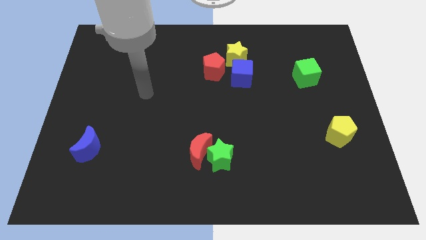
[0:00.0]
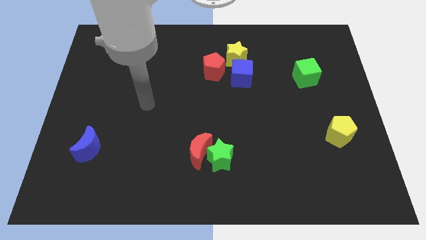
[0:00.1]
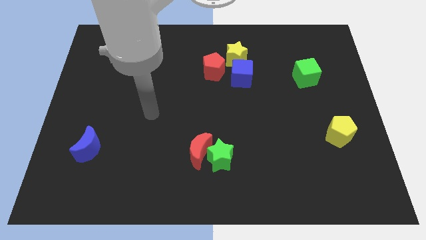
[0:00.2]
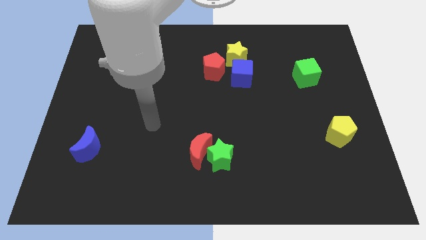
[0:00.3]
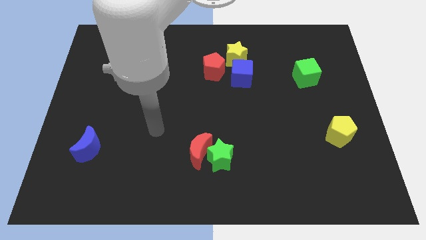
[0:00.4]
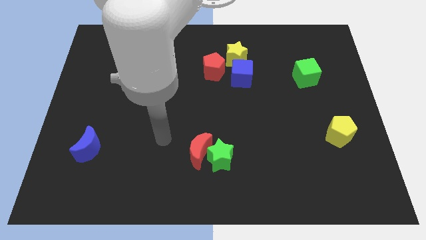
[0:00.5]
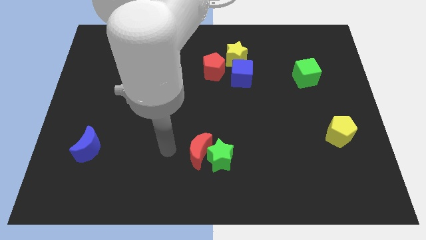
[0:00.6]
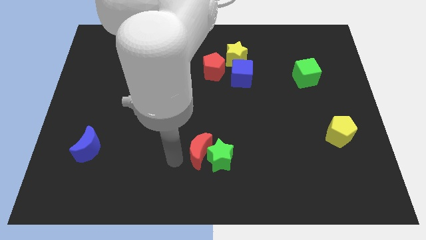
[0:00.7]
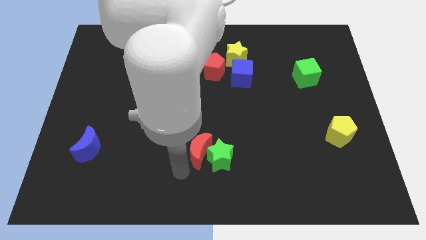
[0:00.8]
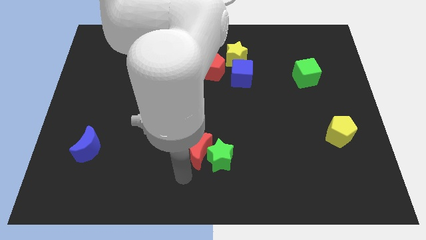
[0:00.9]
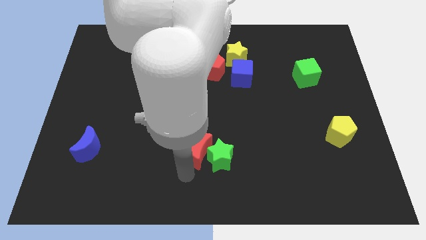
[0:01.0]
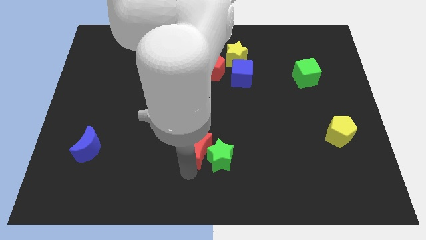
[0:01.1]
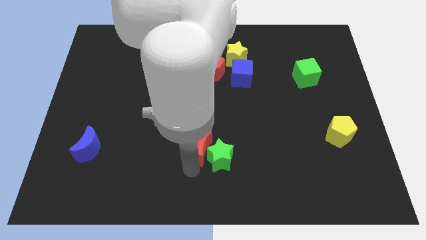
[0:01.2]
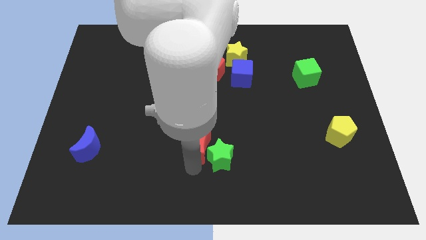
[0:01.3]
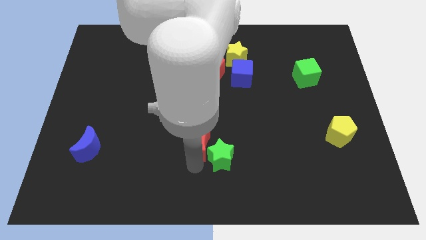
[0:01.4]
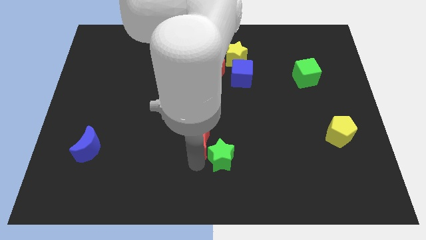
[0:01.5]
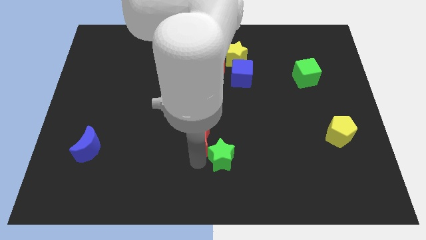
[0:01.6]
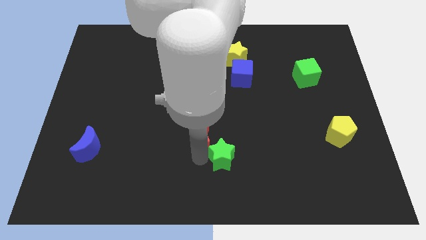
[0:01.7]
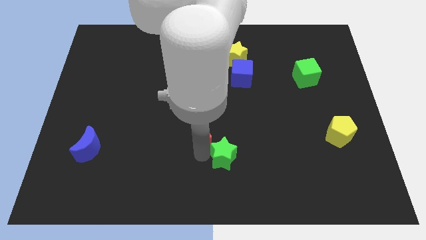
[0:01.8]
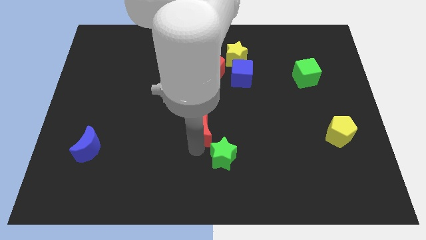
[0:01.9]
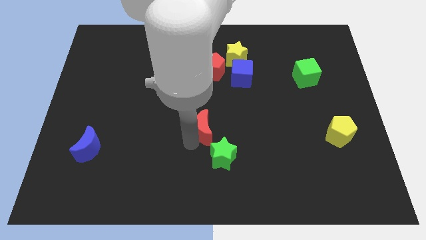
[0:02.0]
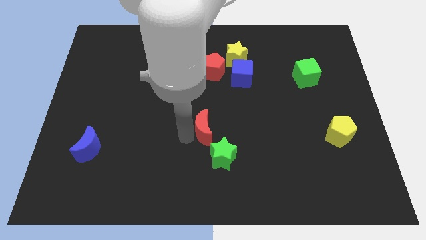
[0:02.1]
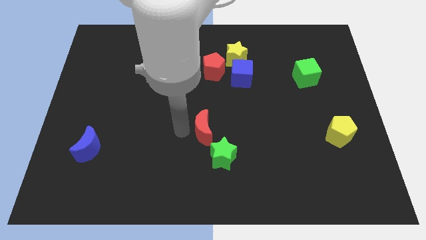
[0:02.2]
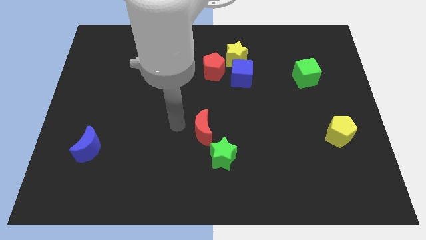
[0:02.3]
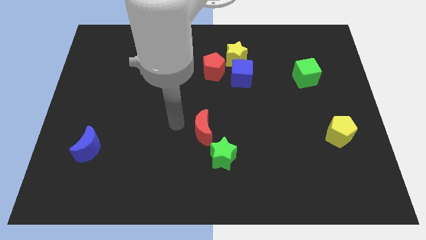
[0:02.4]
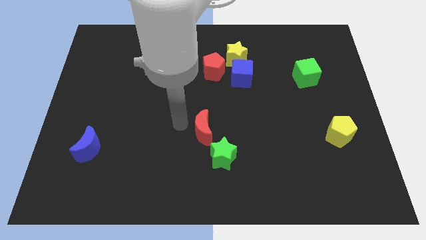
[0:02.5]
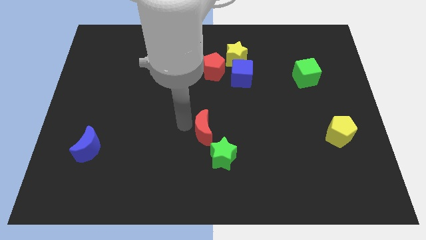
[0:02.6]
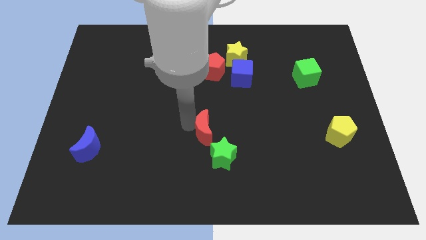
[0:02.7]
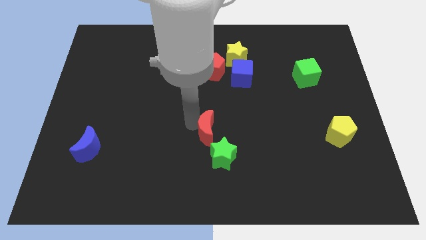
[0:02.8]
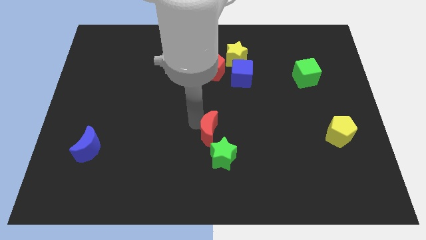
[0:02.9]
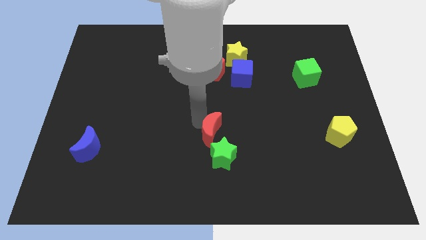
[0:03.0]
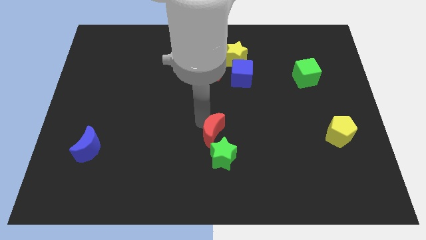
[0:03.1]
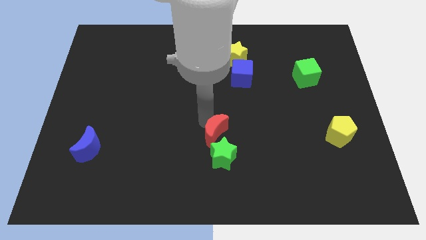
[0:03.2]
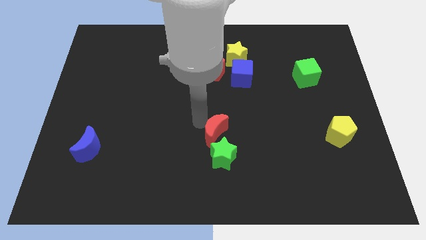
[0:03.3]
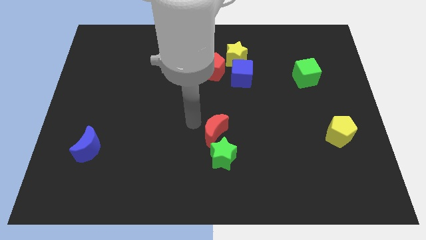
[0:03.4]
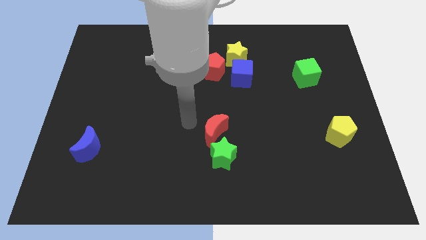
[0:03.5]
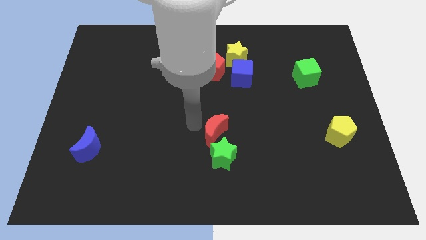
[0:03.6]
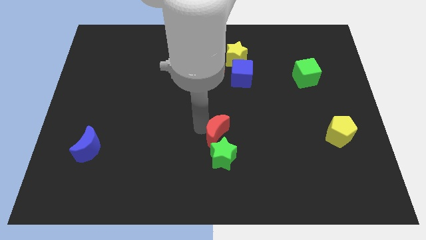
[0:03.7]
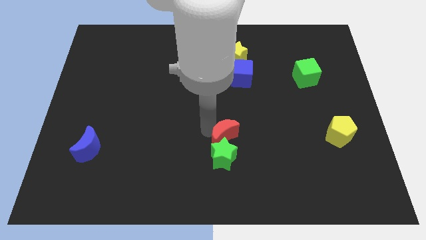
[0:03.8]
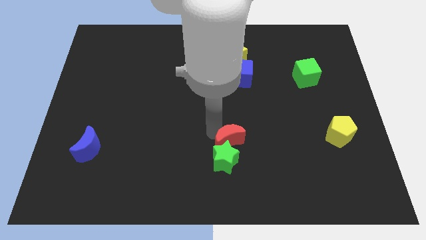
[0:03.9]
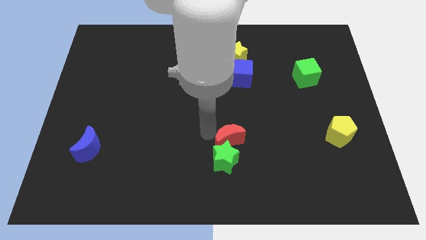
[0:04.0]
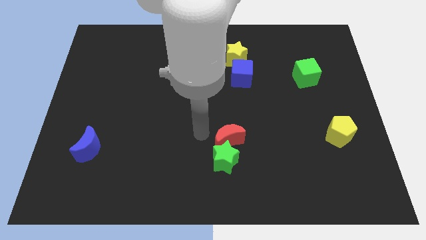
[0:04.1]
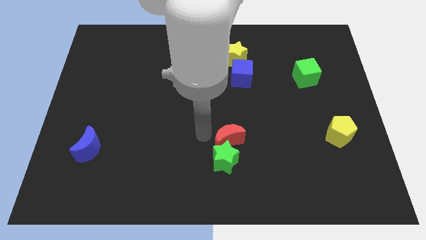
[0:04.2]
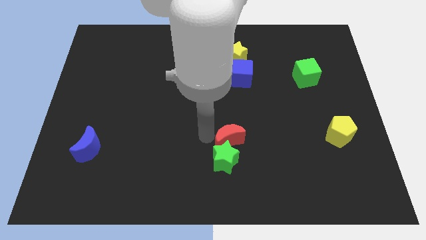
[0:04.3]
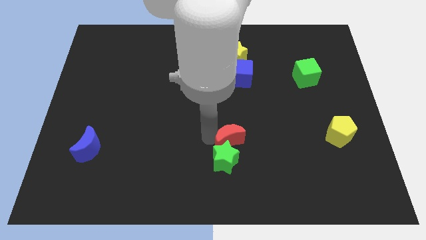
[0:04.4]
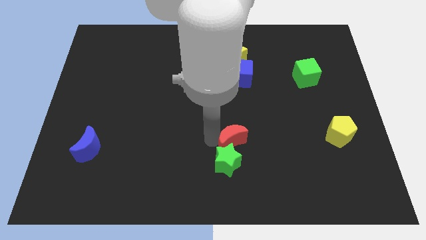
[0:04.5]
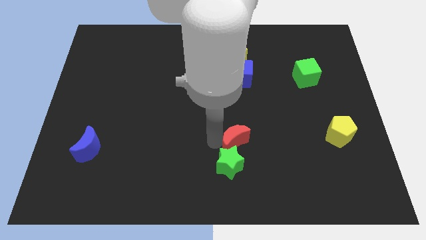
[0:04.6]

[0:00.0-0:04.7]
slide the red moon slightly right

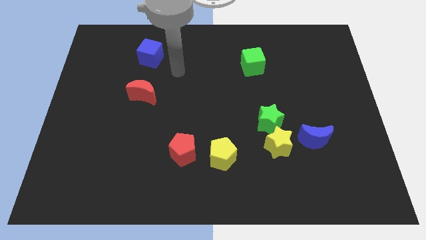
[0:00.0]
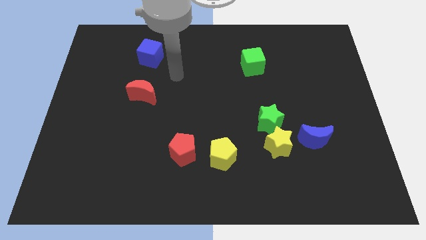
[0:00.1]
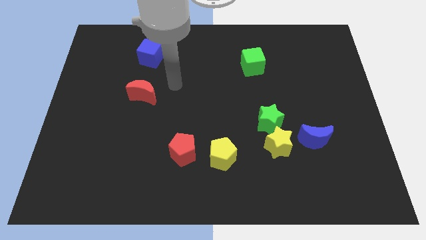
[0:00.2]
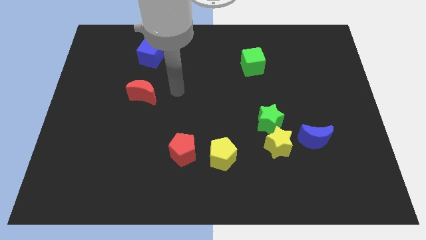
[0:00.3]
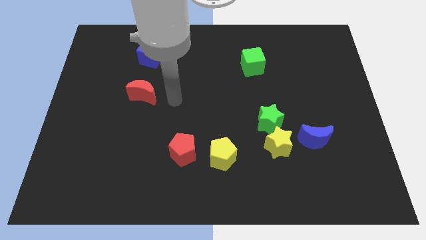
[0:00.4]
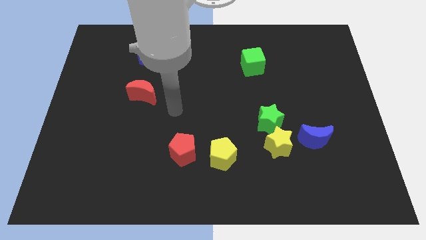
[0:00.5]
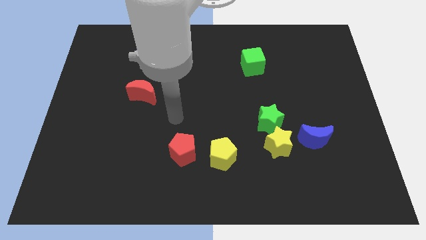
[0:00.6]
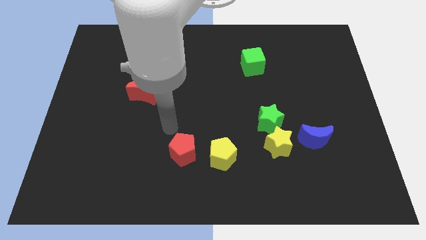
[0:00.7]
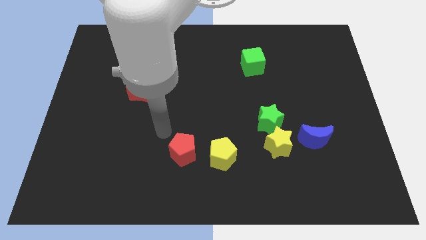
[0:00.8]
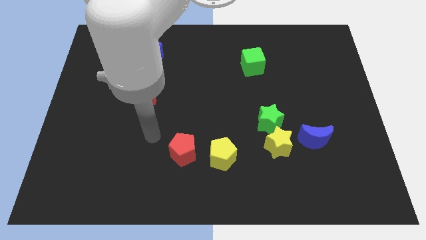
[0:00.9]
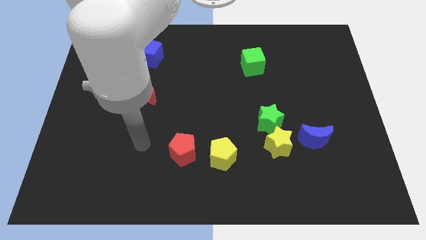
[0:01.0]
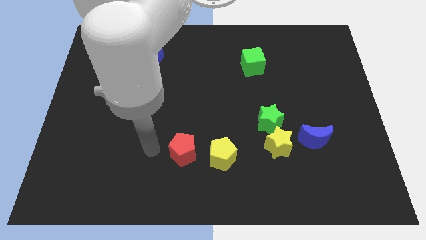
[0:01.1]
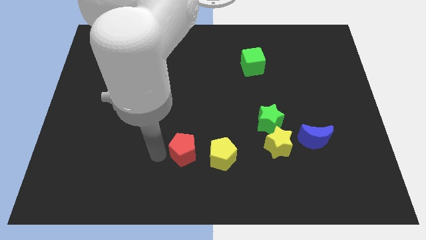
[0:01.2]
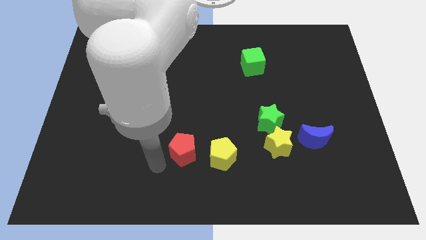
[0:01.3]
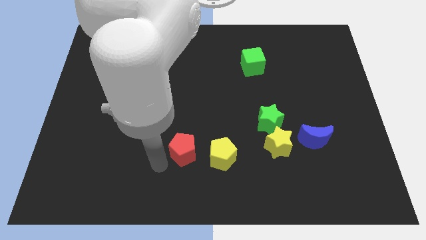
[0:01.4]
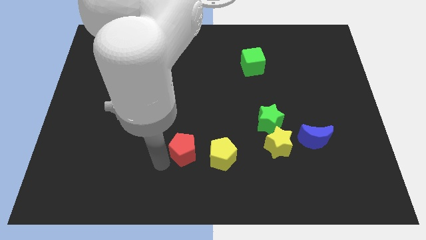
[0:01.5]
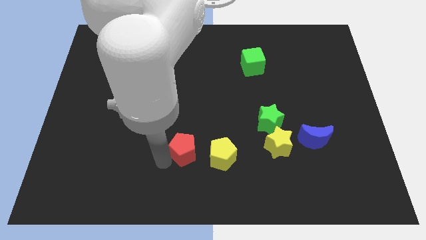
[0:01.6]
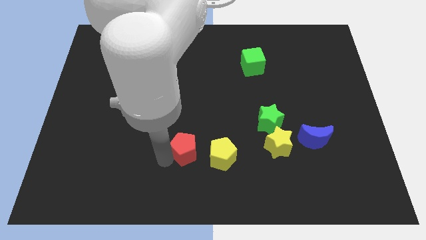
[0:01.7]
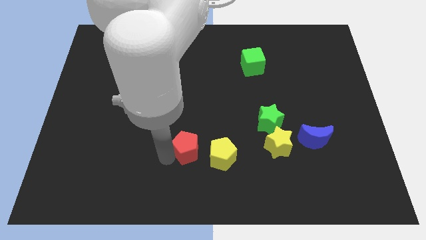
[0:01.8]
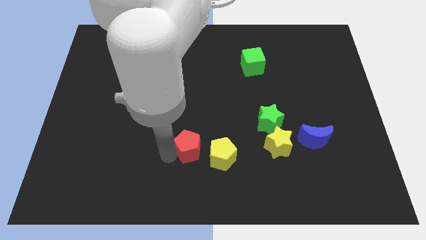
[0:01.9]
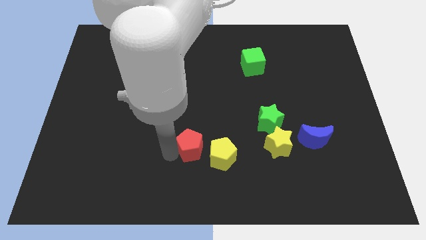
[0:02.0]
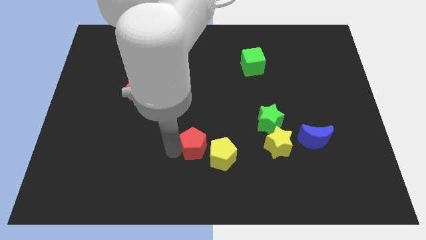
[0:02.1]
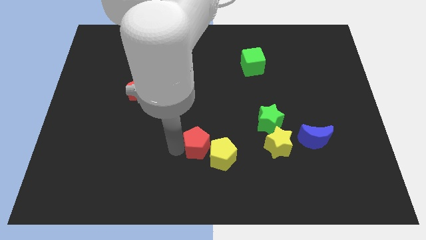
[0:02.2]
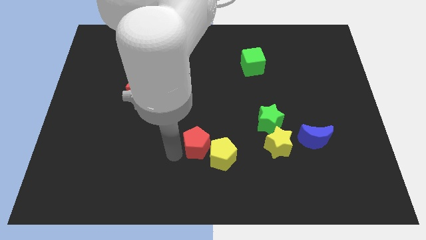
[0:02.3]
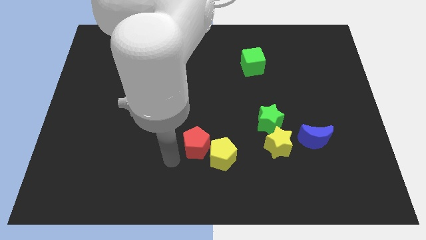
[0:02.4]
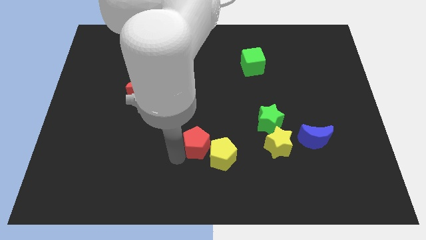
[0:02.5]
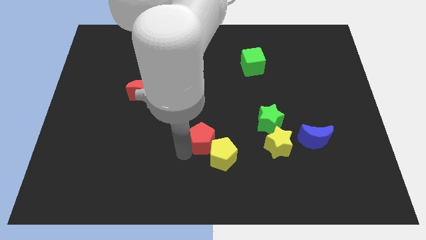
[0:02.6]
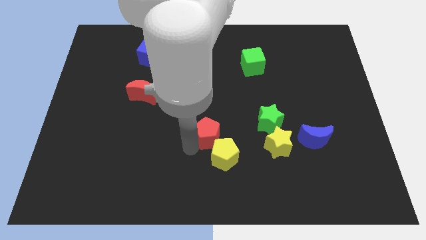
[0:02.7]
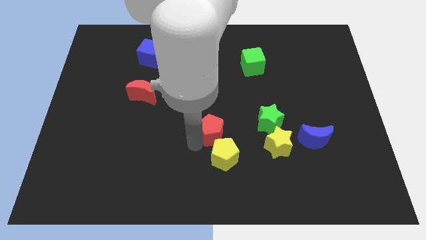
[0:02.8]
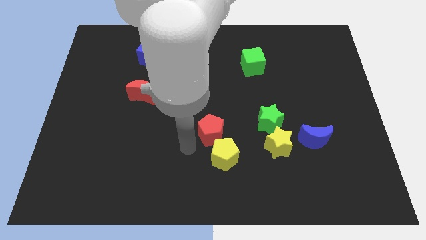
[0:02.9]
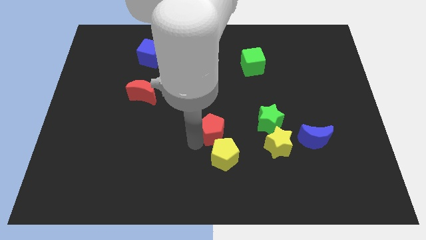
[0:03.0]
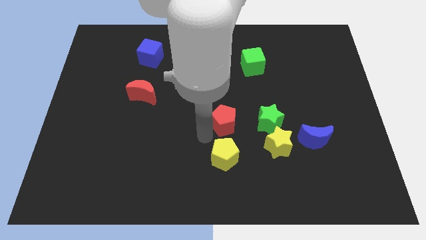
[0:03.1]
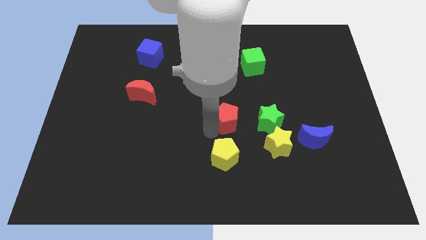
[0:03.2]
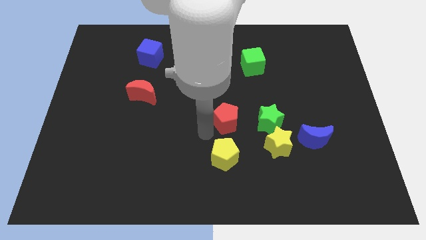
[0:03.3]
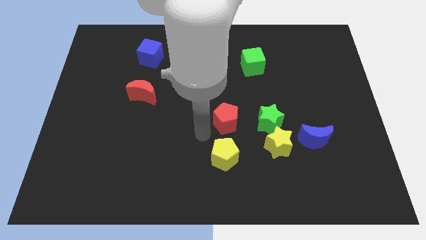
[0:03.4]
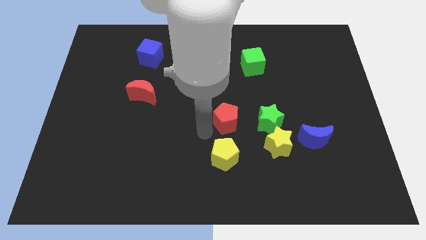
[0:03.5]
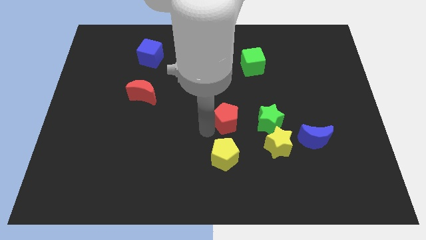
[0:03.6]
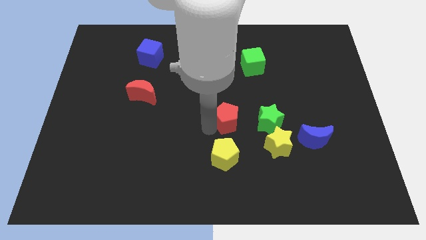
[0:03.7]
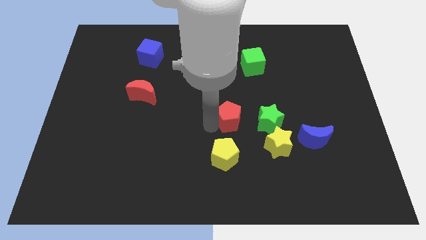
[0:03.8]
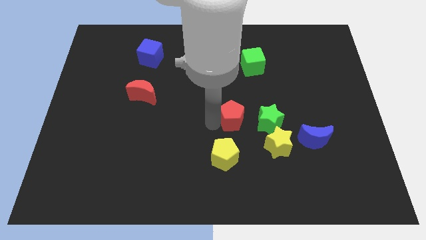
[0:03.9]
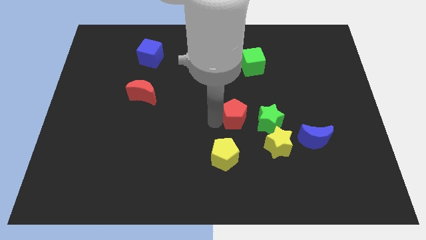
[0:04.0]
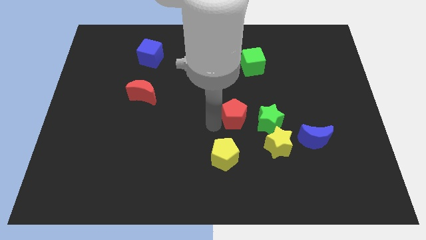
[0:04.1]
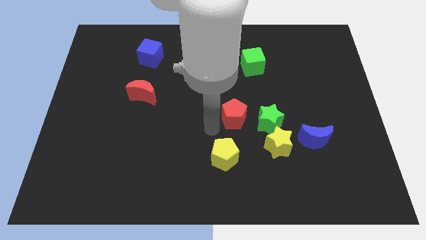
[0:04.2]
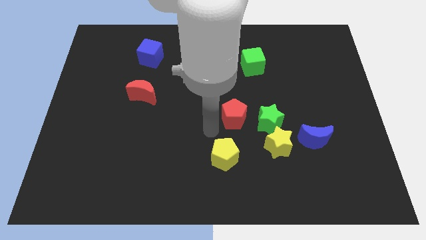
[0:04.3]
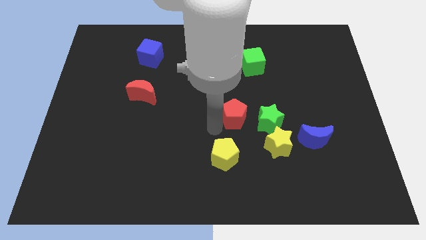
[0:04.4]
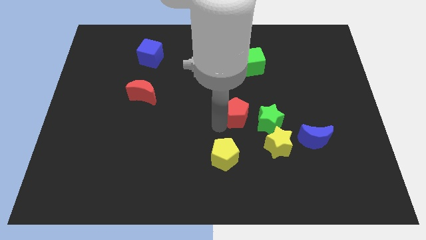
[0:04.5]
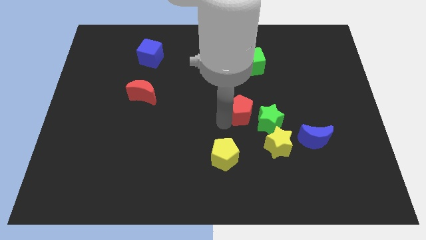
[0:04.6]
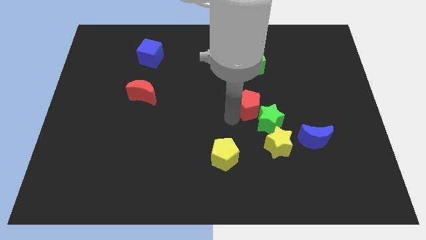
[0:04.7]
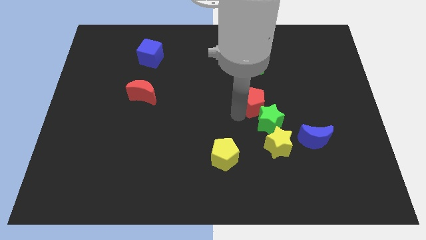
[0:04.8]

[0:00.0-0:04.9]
slide the red pentagon diagonally upwards and to the right
